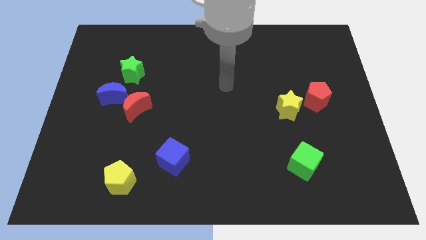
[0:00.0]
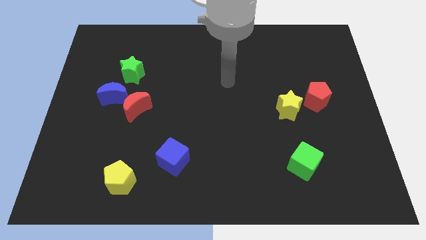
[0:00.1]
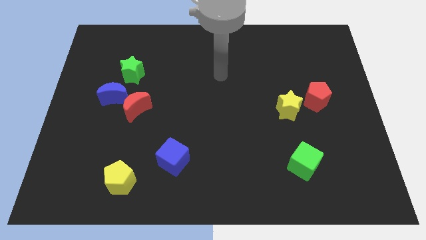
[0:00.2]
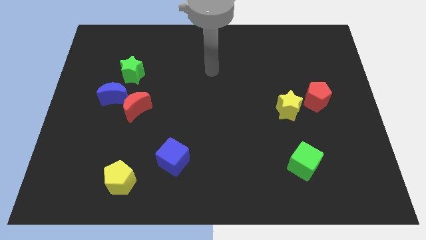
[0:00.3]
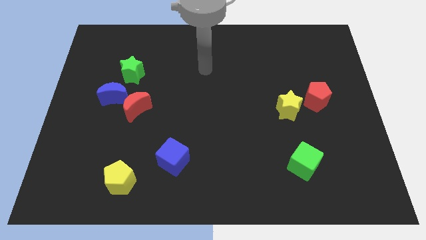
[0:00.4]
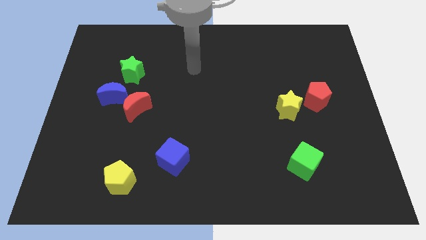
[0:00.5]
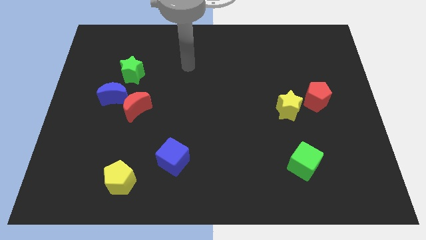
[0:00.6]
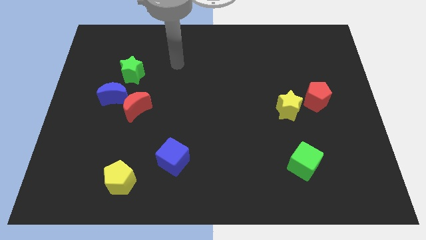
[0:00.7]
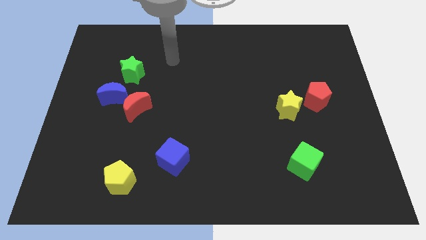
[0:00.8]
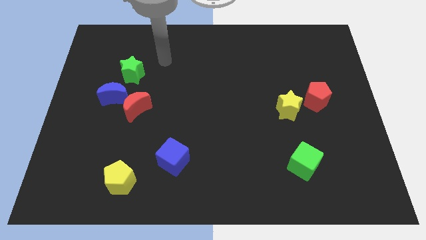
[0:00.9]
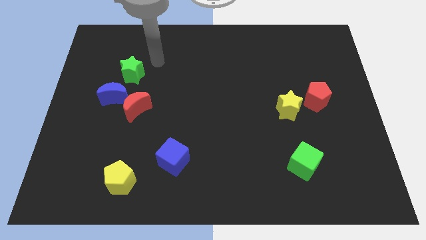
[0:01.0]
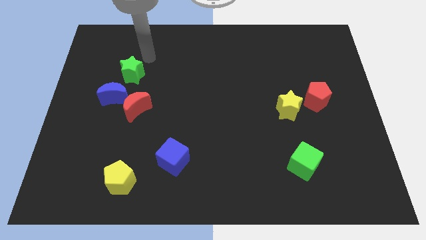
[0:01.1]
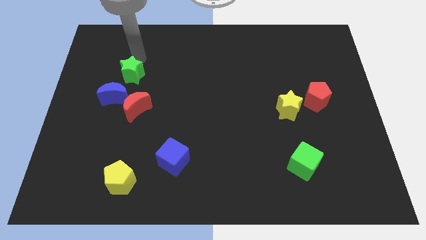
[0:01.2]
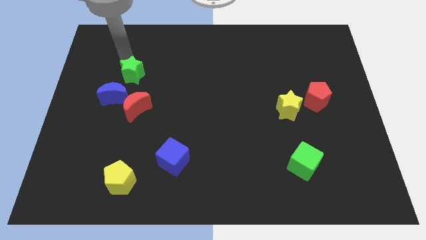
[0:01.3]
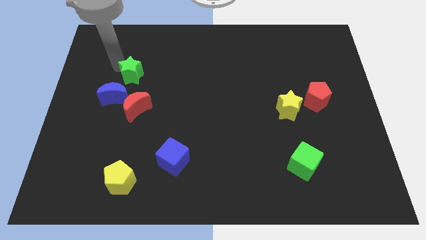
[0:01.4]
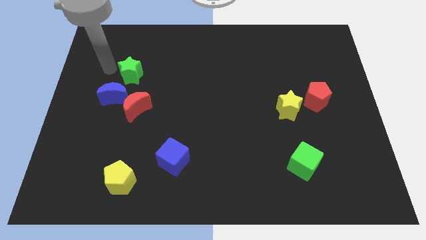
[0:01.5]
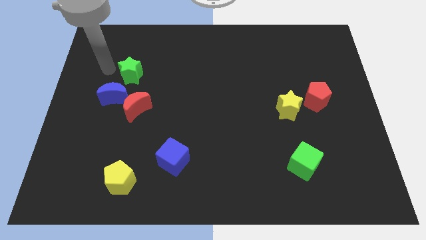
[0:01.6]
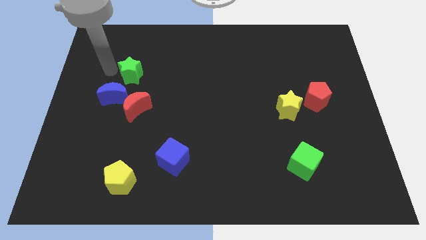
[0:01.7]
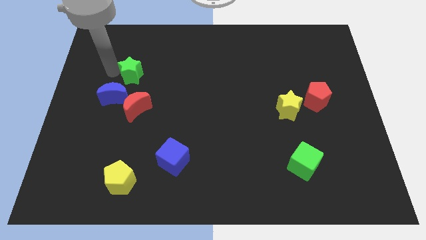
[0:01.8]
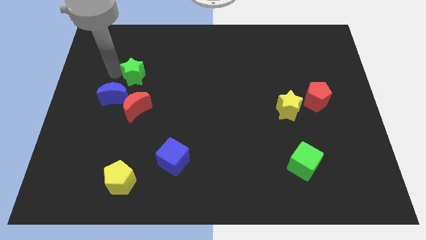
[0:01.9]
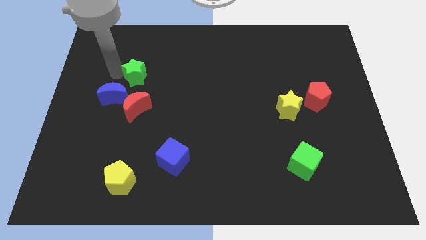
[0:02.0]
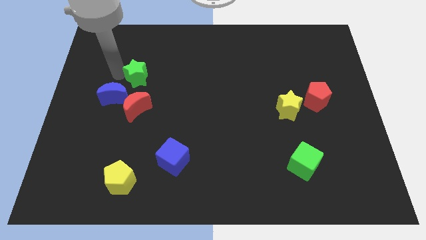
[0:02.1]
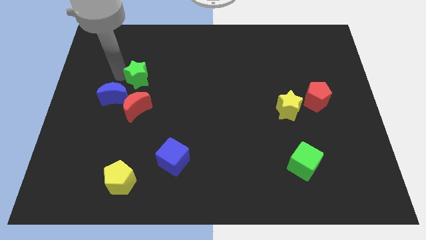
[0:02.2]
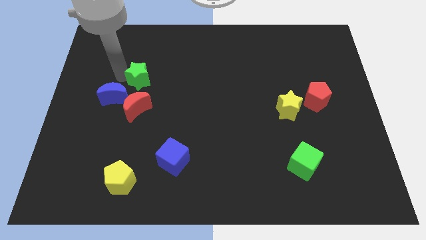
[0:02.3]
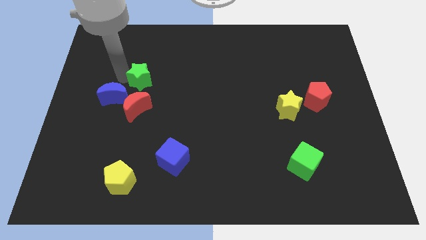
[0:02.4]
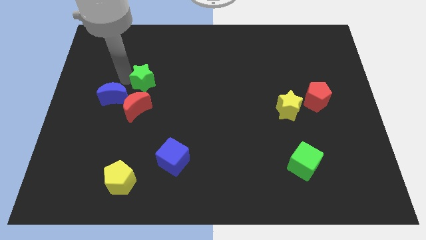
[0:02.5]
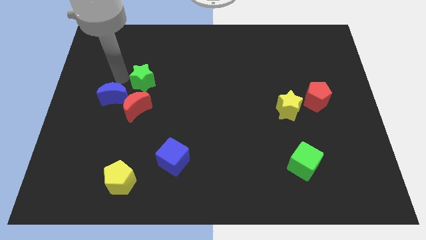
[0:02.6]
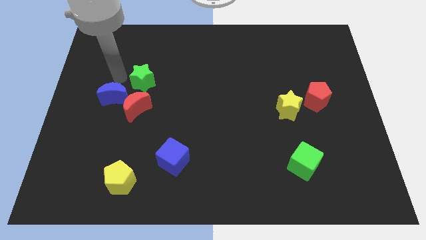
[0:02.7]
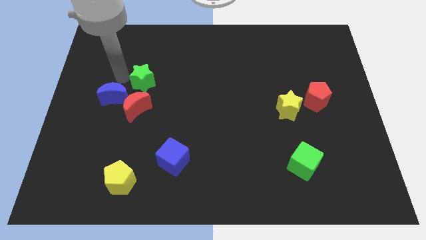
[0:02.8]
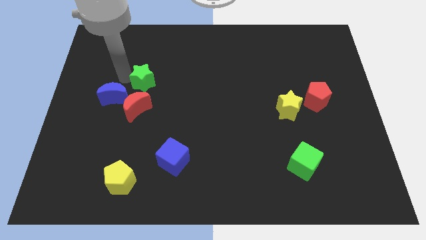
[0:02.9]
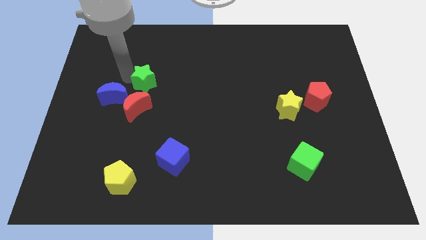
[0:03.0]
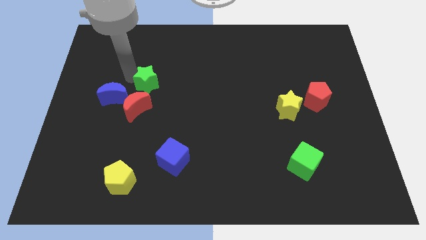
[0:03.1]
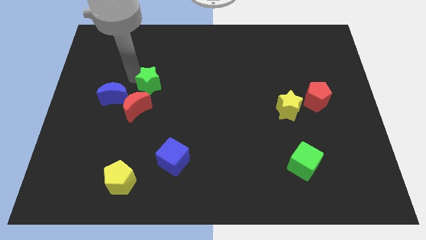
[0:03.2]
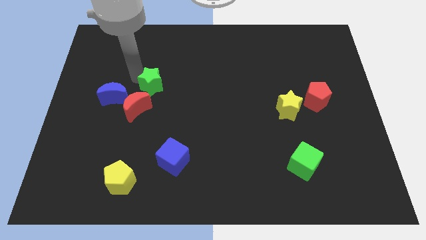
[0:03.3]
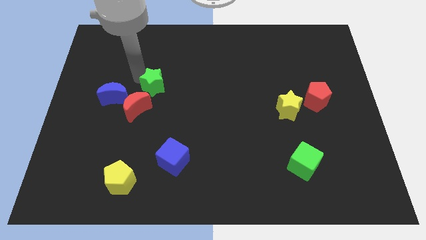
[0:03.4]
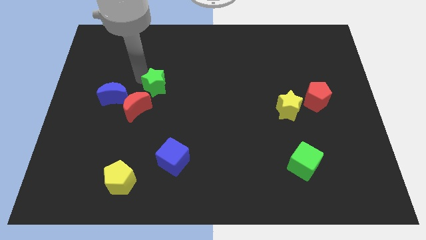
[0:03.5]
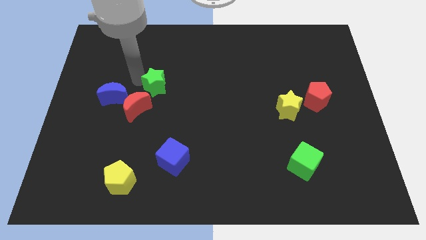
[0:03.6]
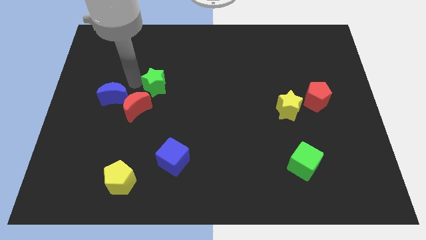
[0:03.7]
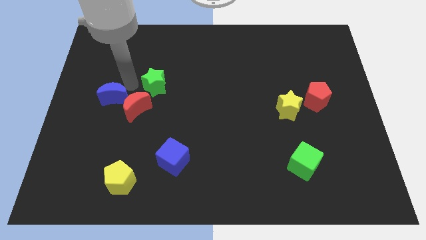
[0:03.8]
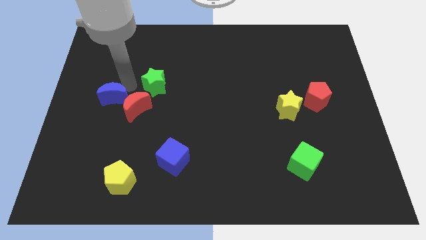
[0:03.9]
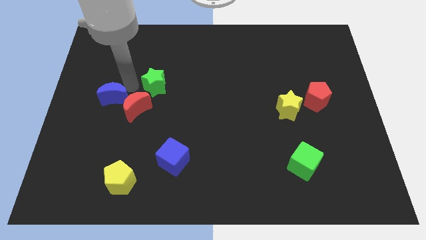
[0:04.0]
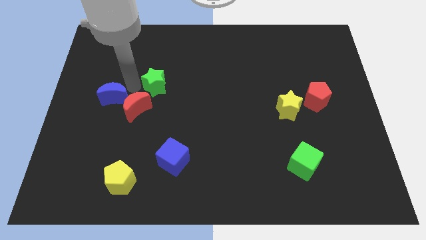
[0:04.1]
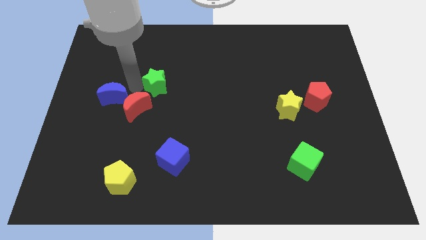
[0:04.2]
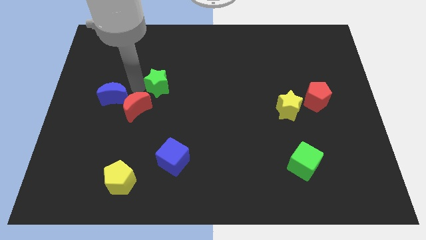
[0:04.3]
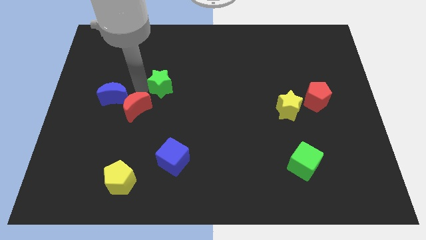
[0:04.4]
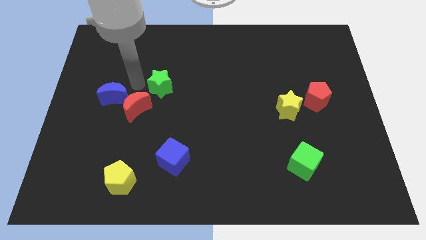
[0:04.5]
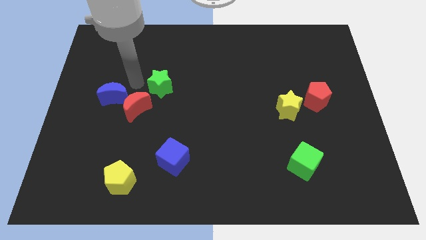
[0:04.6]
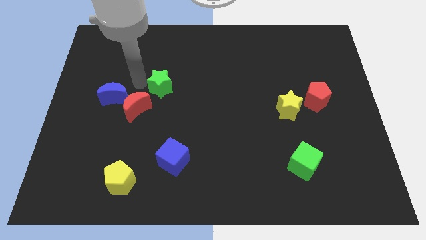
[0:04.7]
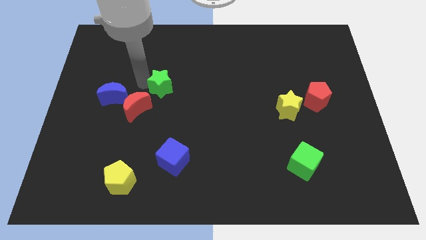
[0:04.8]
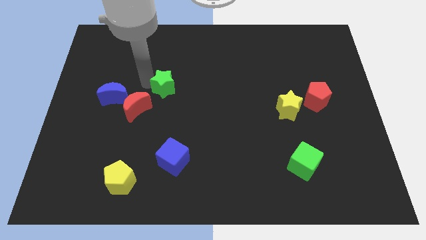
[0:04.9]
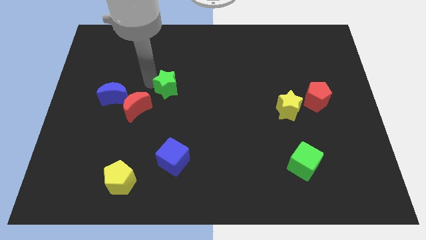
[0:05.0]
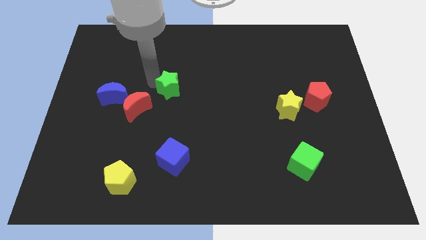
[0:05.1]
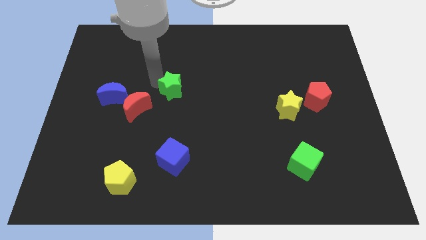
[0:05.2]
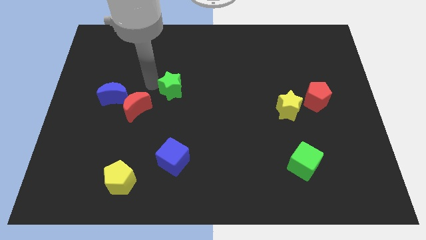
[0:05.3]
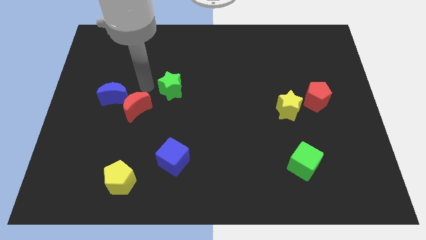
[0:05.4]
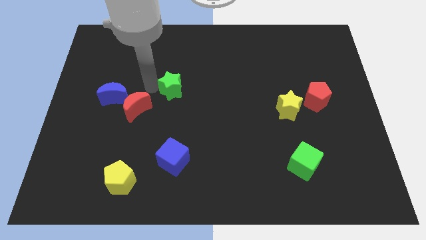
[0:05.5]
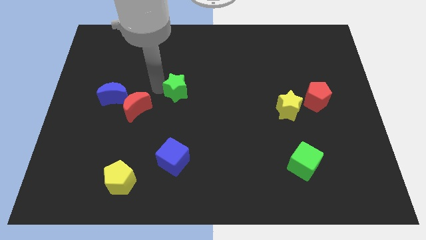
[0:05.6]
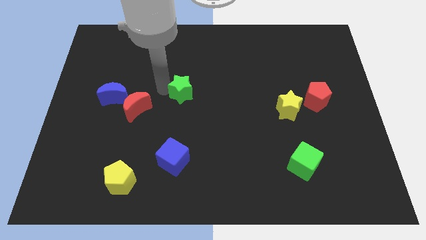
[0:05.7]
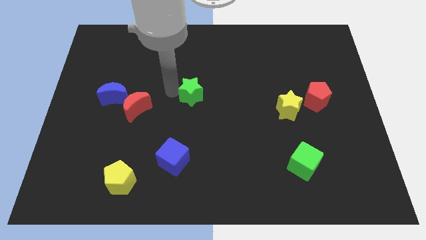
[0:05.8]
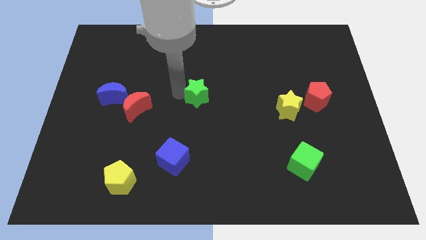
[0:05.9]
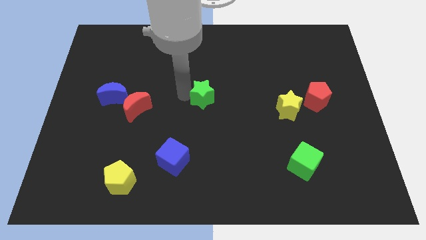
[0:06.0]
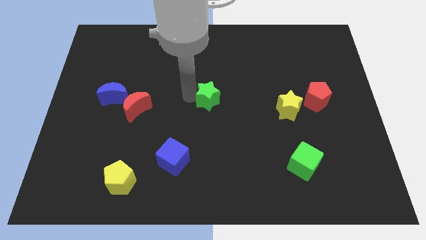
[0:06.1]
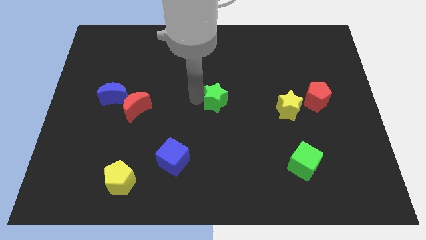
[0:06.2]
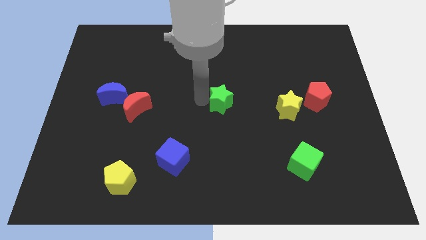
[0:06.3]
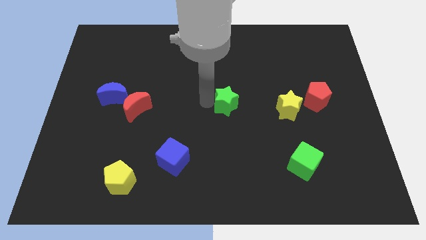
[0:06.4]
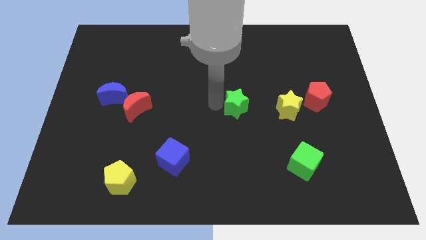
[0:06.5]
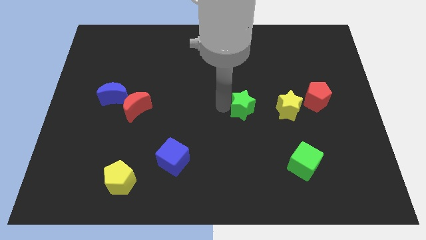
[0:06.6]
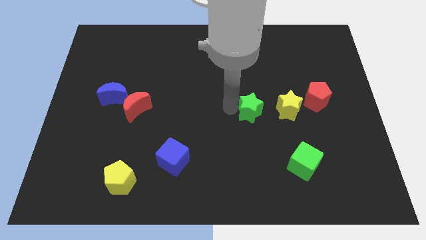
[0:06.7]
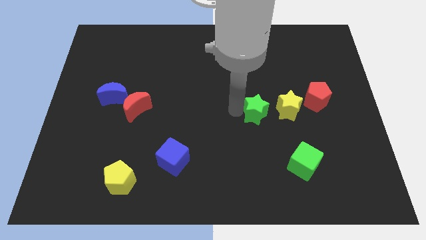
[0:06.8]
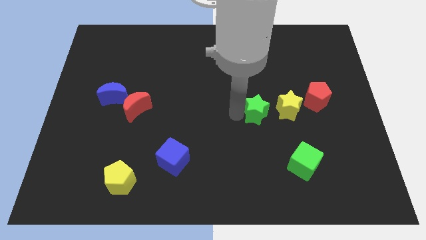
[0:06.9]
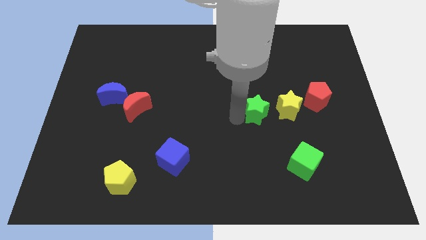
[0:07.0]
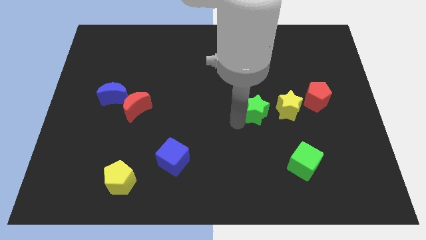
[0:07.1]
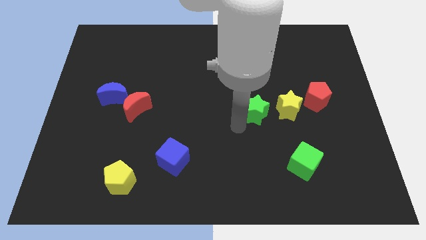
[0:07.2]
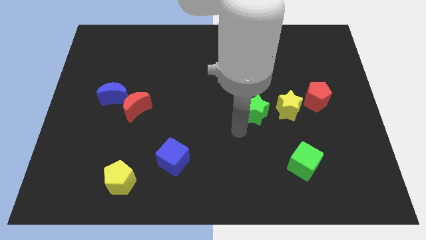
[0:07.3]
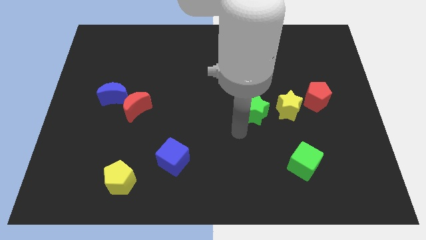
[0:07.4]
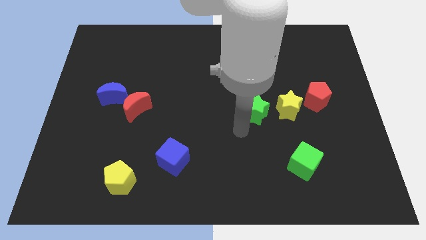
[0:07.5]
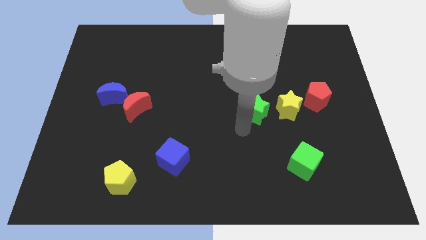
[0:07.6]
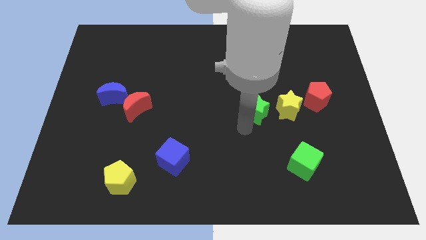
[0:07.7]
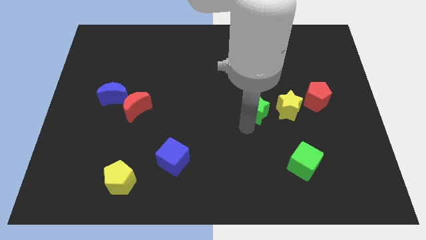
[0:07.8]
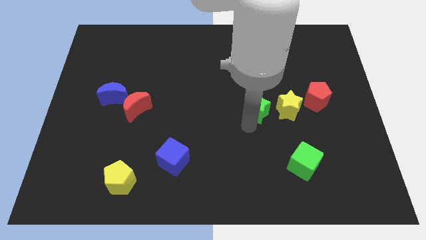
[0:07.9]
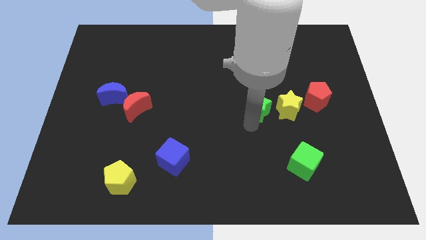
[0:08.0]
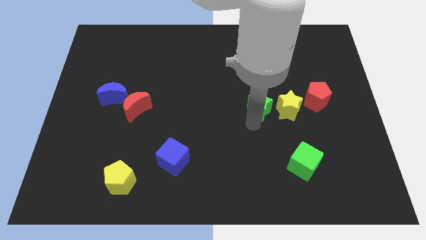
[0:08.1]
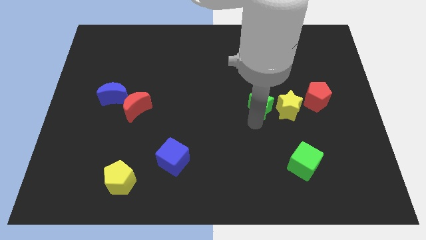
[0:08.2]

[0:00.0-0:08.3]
push the green star towards the yellow star
